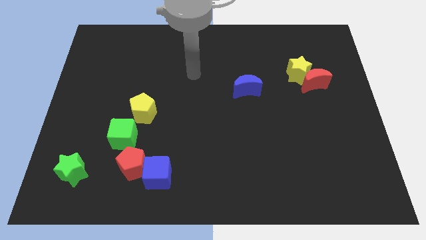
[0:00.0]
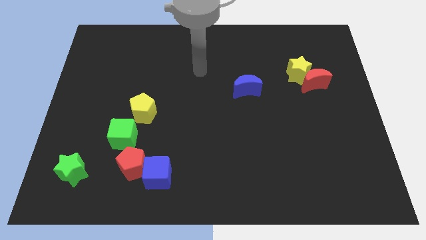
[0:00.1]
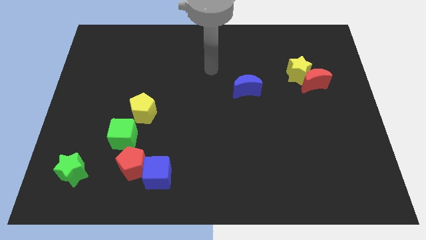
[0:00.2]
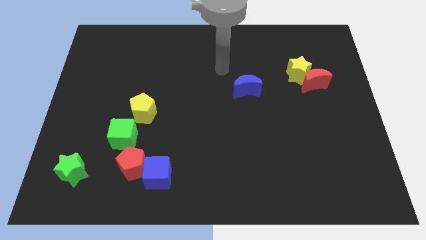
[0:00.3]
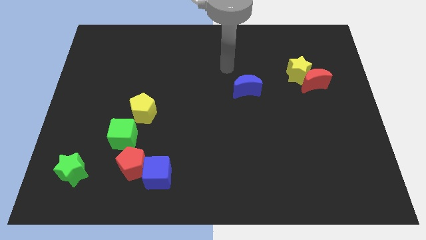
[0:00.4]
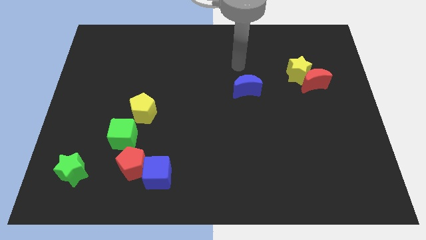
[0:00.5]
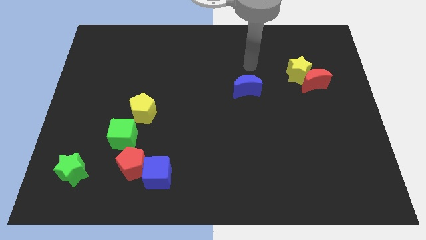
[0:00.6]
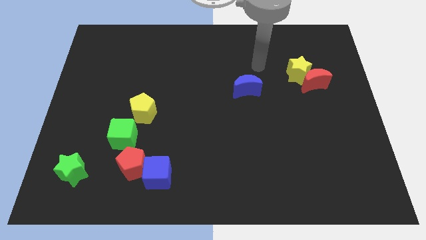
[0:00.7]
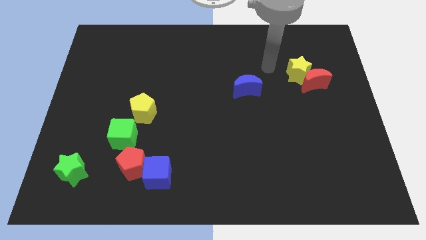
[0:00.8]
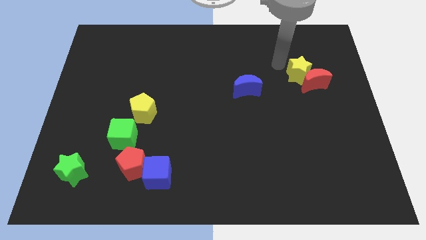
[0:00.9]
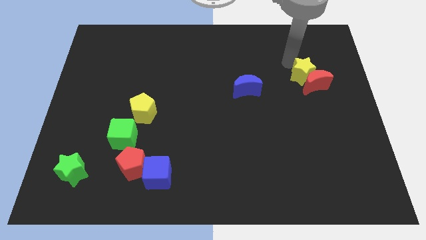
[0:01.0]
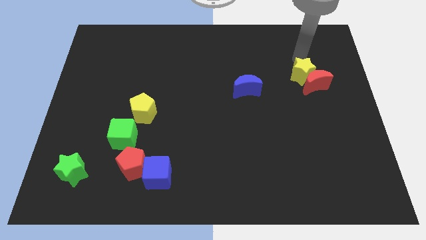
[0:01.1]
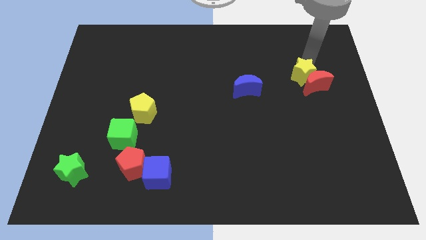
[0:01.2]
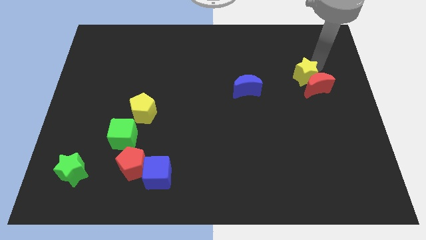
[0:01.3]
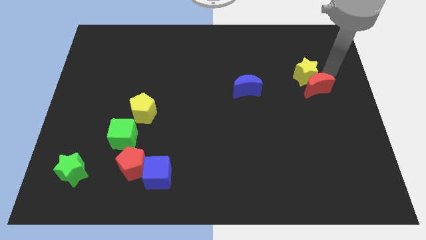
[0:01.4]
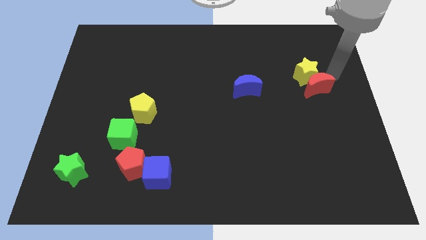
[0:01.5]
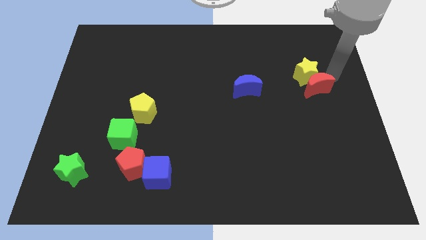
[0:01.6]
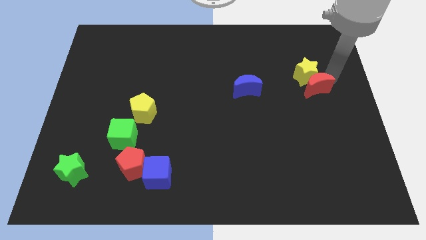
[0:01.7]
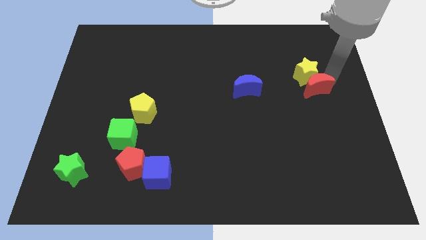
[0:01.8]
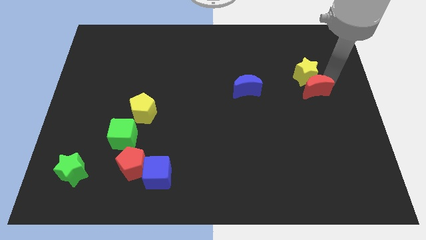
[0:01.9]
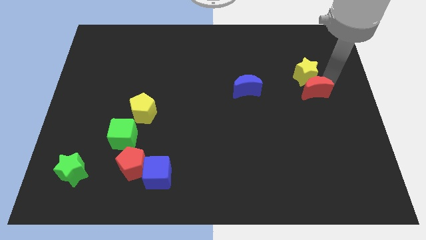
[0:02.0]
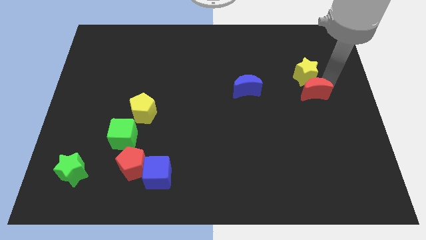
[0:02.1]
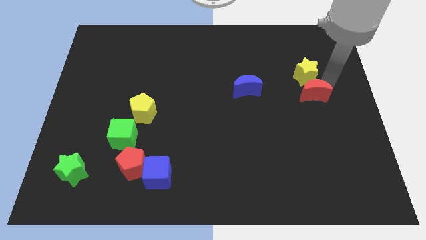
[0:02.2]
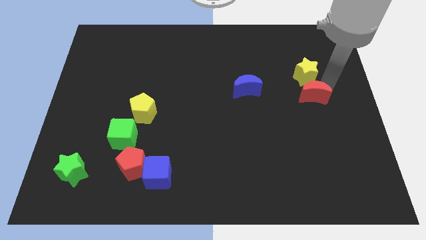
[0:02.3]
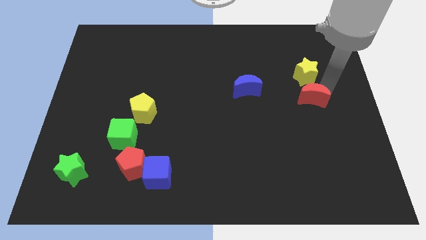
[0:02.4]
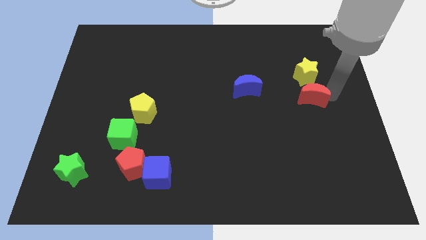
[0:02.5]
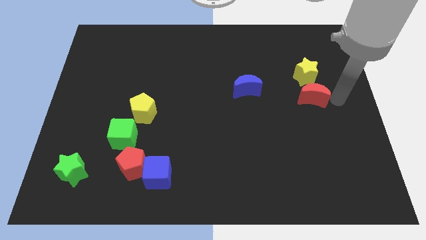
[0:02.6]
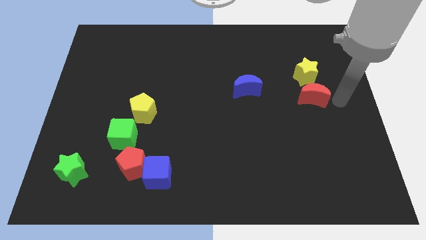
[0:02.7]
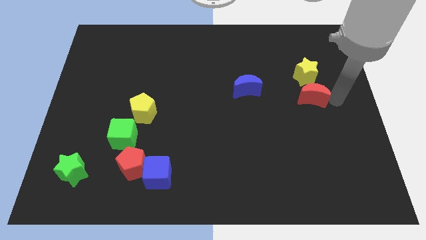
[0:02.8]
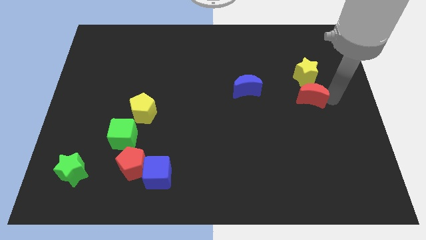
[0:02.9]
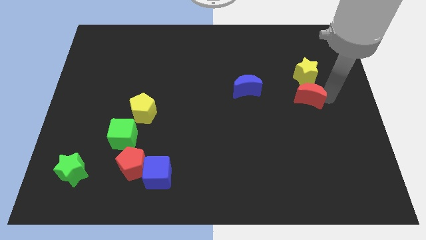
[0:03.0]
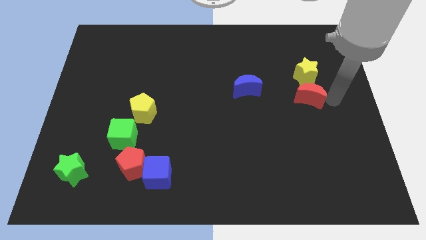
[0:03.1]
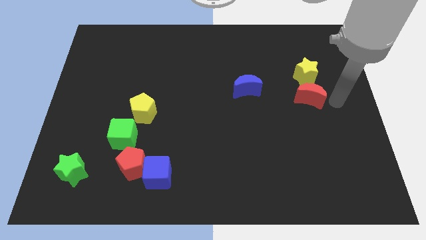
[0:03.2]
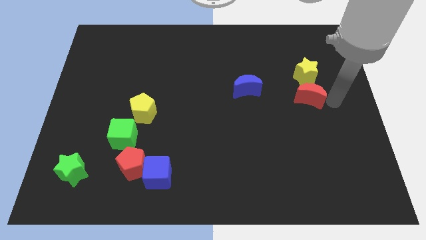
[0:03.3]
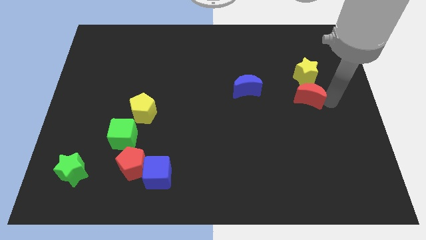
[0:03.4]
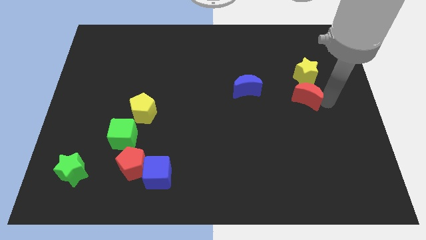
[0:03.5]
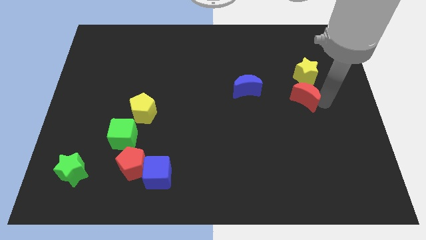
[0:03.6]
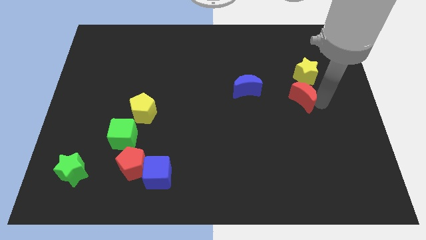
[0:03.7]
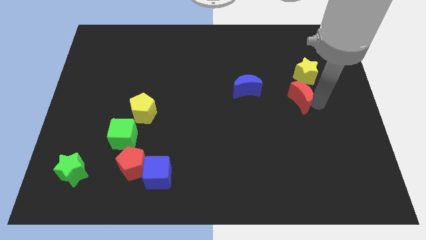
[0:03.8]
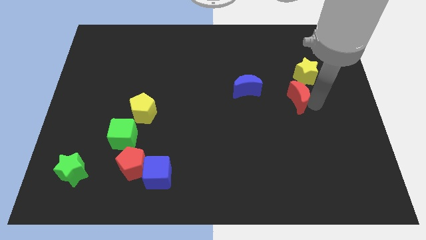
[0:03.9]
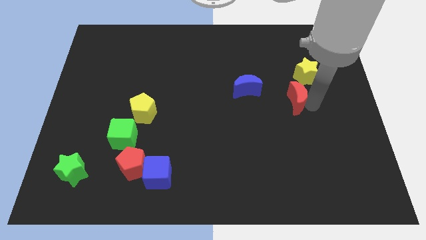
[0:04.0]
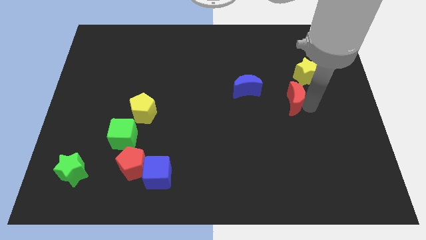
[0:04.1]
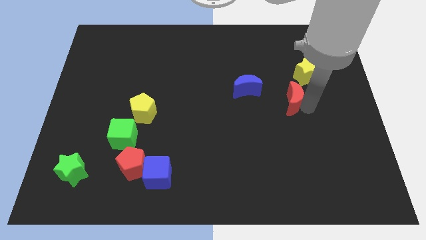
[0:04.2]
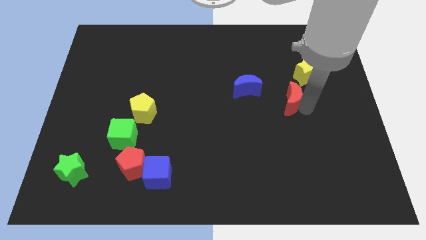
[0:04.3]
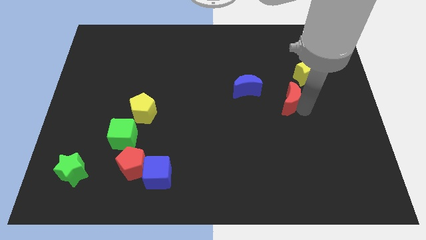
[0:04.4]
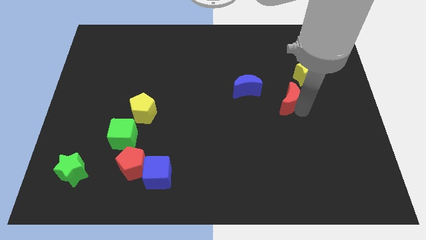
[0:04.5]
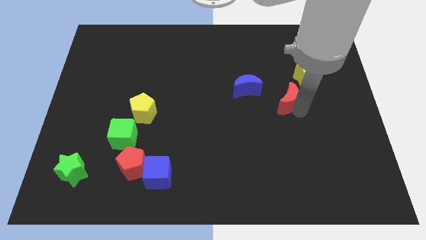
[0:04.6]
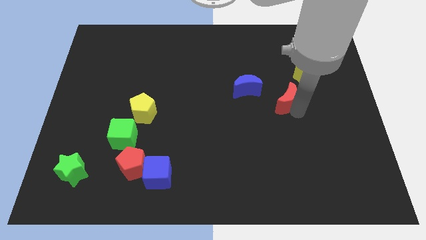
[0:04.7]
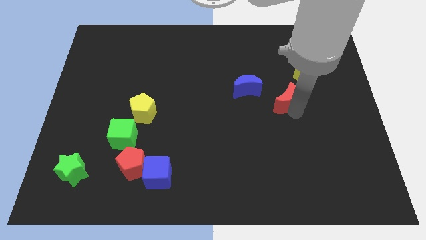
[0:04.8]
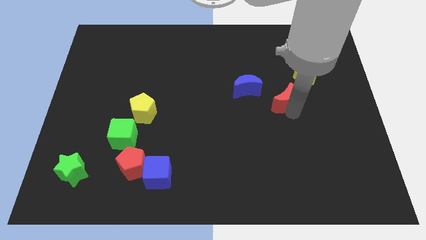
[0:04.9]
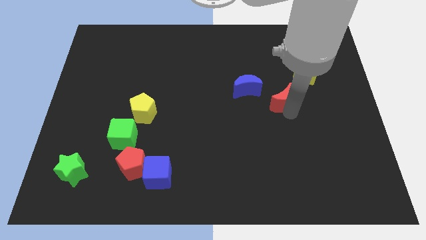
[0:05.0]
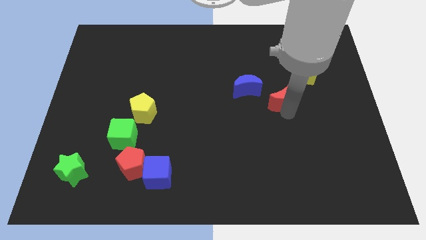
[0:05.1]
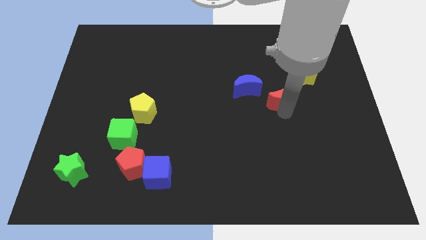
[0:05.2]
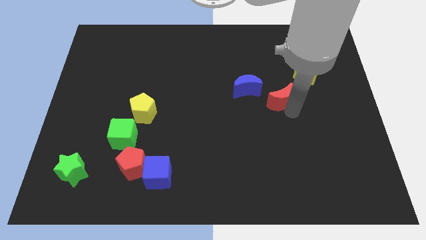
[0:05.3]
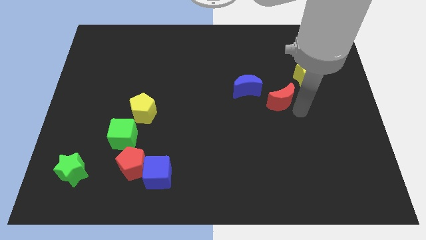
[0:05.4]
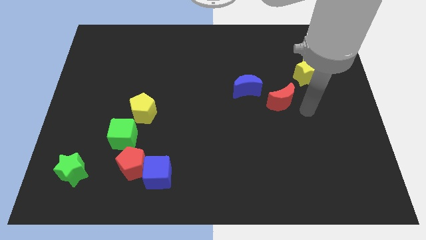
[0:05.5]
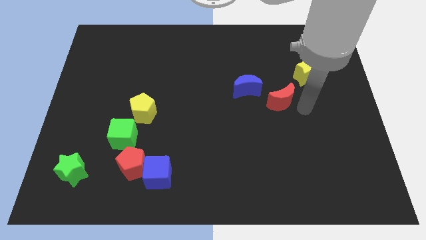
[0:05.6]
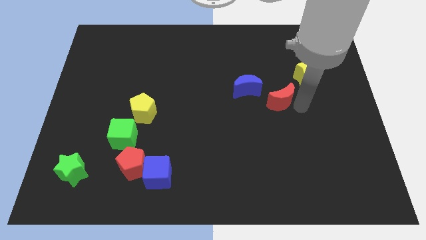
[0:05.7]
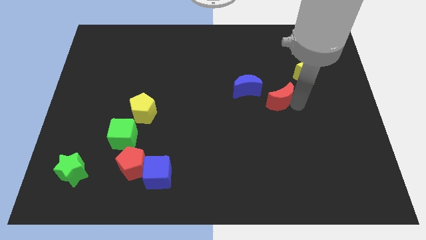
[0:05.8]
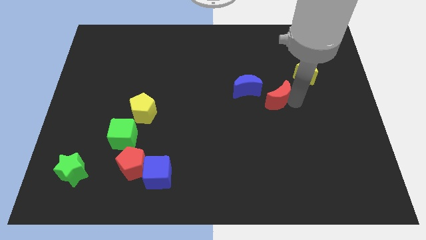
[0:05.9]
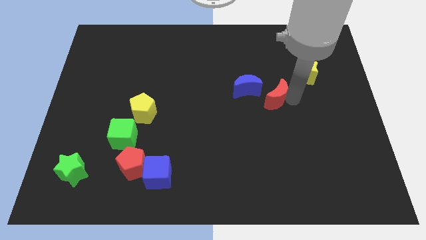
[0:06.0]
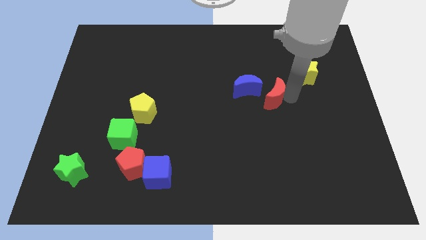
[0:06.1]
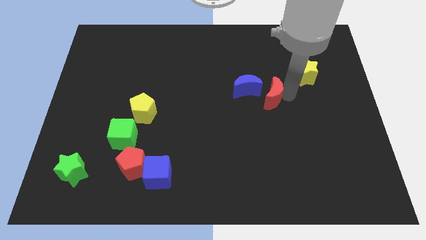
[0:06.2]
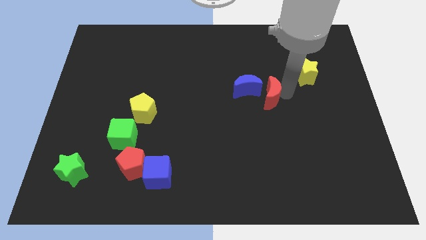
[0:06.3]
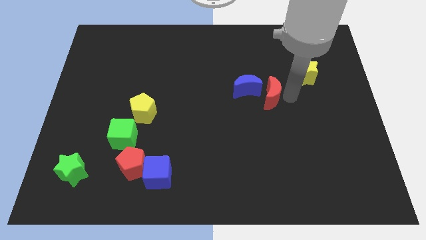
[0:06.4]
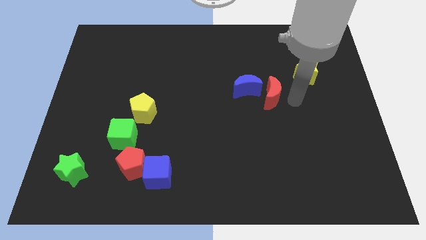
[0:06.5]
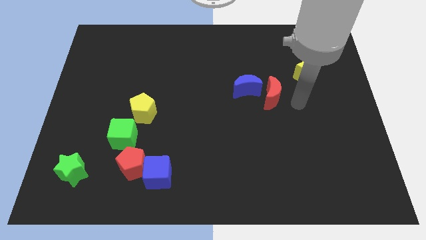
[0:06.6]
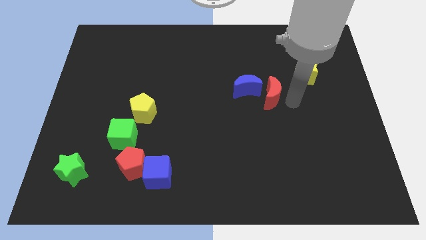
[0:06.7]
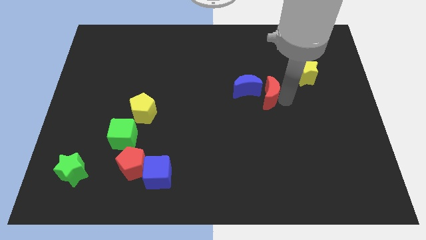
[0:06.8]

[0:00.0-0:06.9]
move the red moon towards the blue moon

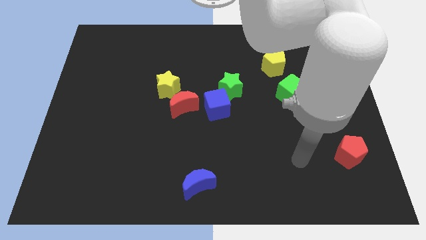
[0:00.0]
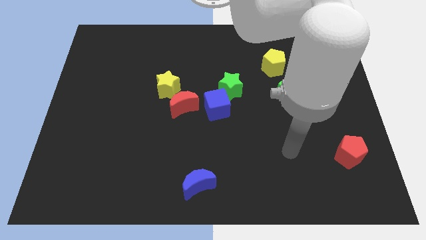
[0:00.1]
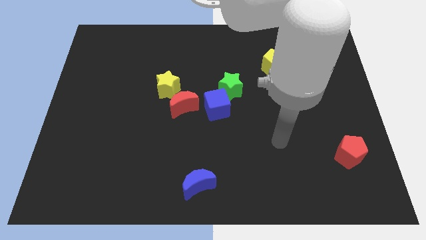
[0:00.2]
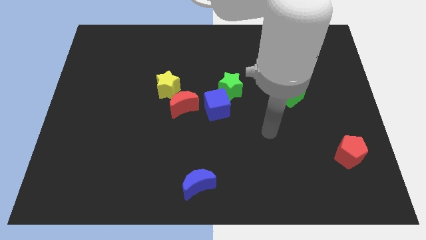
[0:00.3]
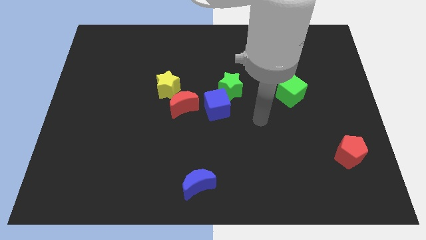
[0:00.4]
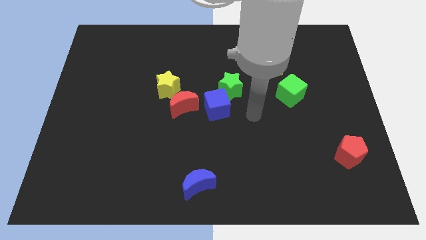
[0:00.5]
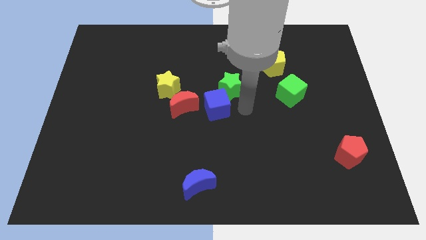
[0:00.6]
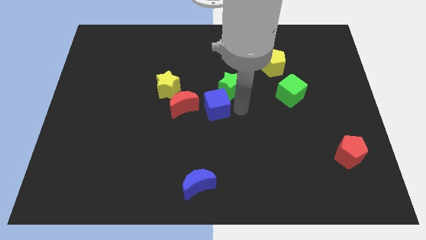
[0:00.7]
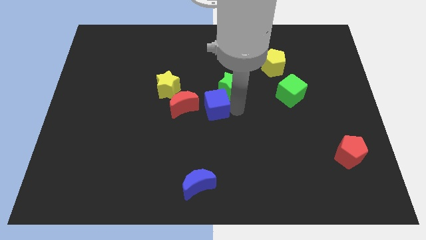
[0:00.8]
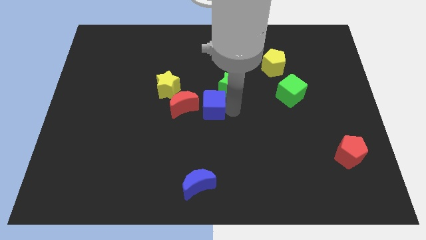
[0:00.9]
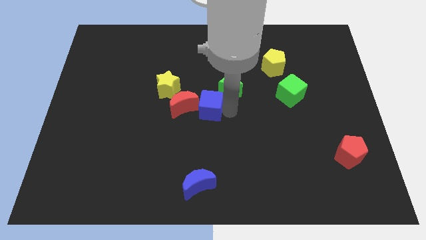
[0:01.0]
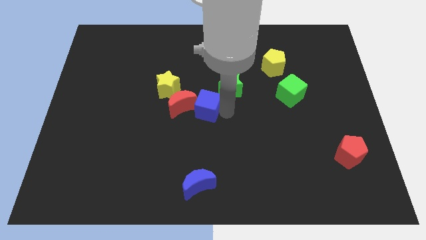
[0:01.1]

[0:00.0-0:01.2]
put the blue cube towards the red moon
